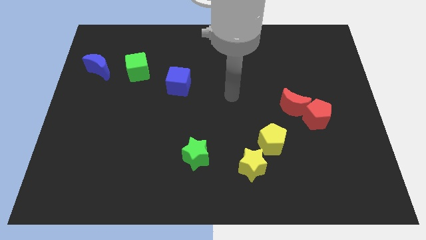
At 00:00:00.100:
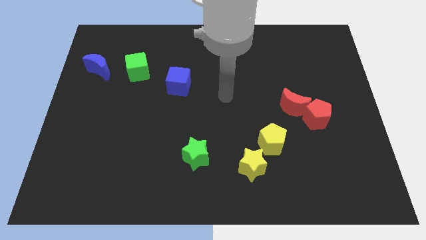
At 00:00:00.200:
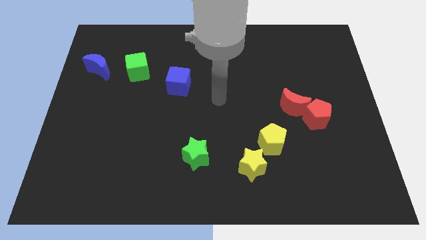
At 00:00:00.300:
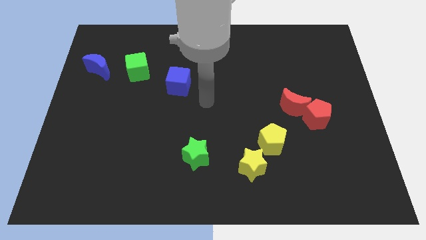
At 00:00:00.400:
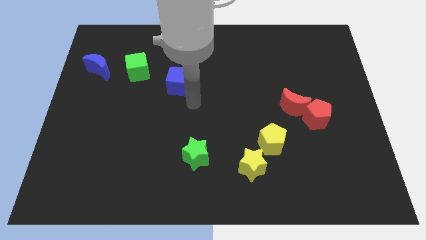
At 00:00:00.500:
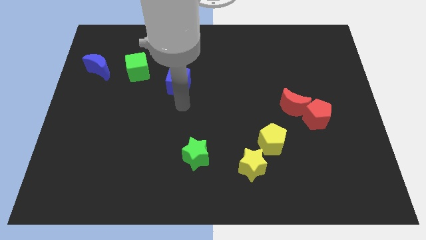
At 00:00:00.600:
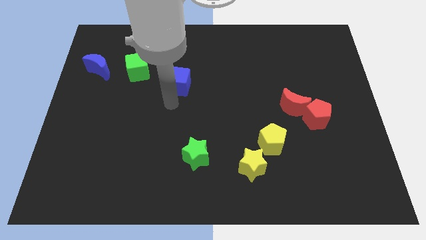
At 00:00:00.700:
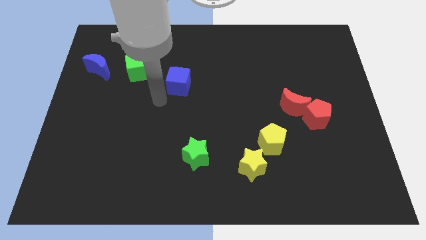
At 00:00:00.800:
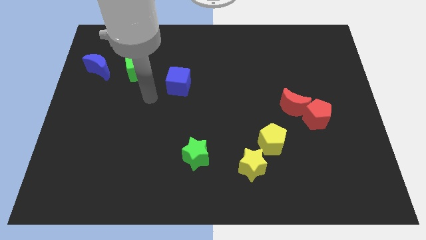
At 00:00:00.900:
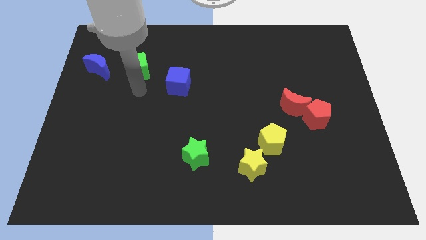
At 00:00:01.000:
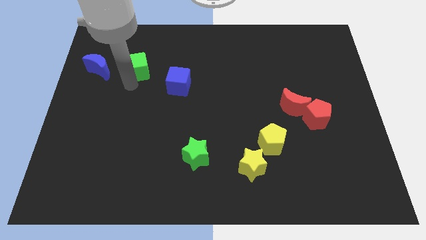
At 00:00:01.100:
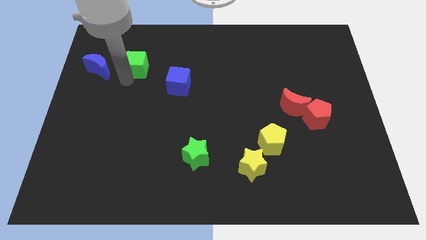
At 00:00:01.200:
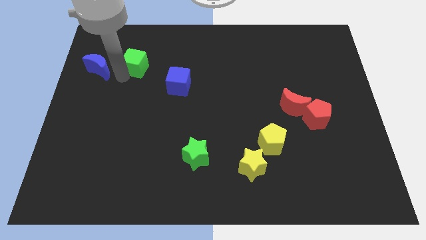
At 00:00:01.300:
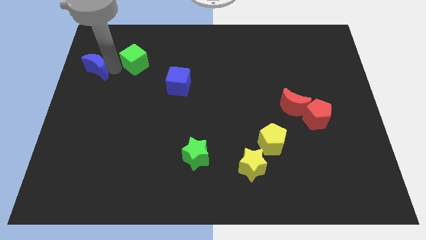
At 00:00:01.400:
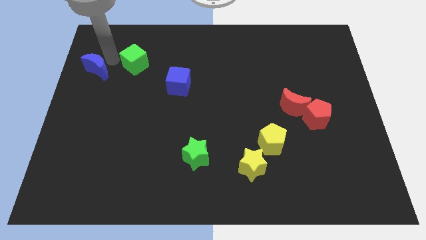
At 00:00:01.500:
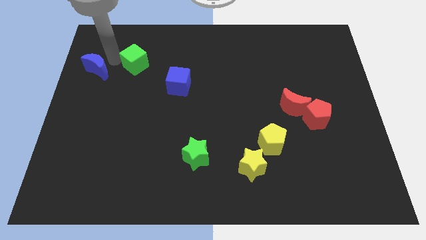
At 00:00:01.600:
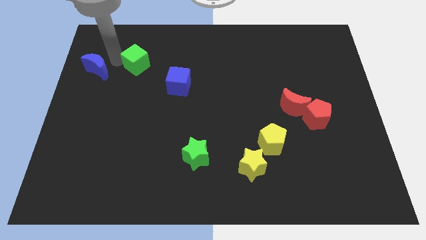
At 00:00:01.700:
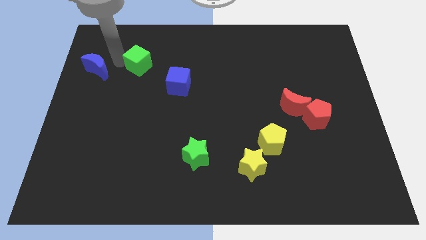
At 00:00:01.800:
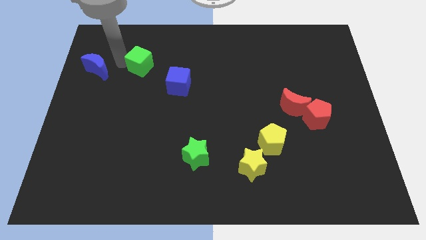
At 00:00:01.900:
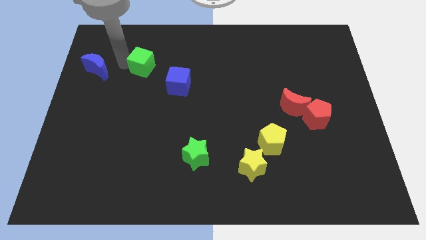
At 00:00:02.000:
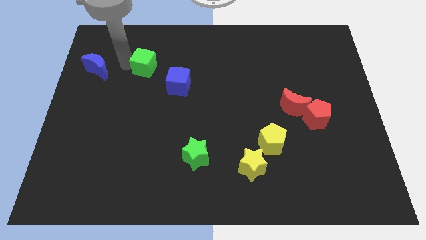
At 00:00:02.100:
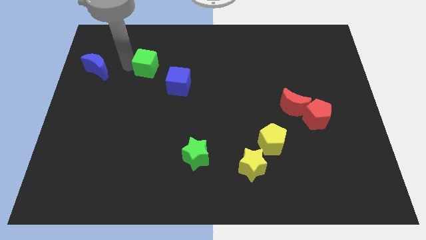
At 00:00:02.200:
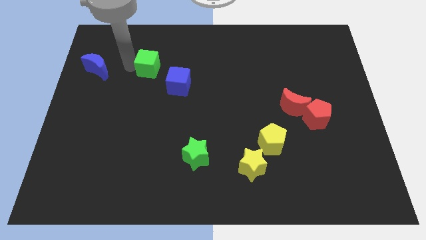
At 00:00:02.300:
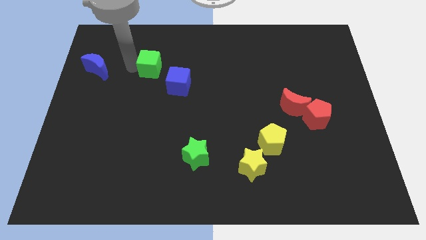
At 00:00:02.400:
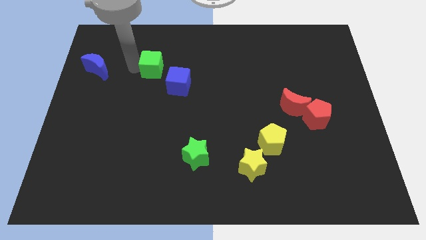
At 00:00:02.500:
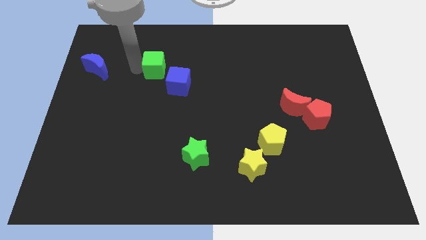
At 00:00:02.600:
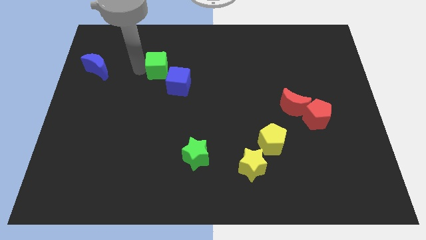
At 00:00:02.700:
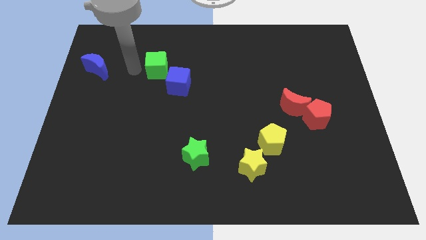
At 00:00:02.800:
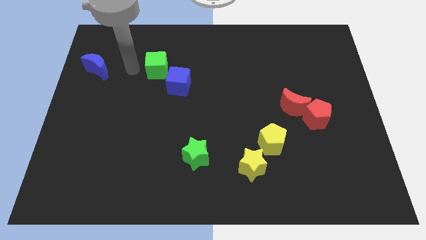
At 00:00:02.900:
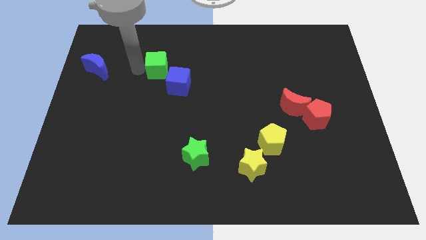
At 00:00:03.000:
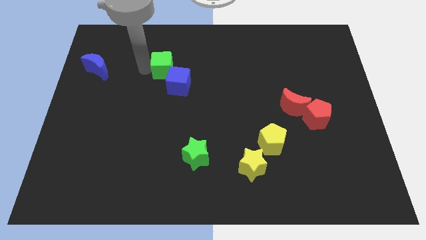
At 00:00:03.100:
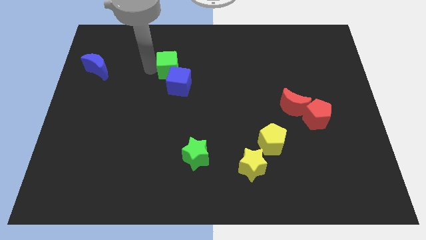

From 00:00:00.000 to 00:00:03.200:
move the green cube to the right a bit

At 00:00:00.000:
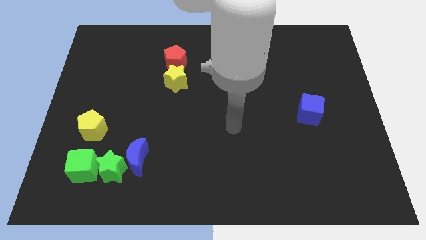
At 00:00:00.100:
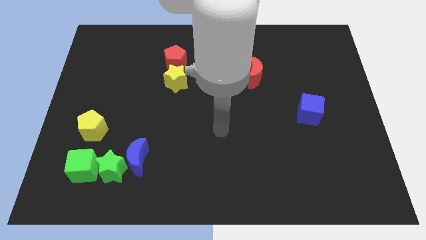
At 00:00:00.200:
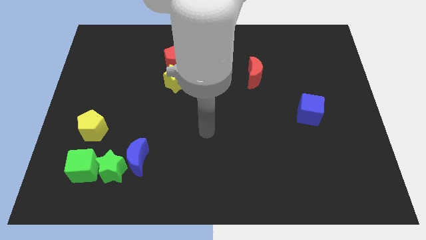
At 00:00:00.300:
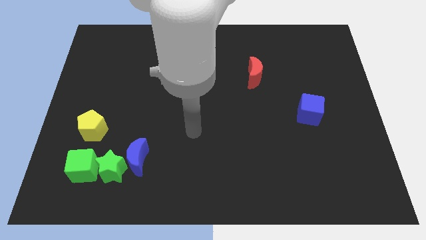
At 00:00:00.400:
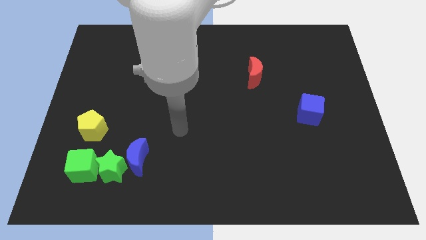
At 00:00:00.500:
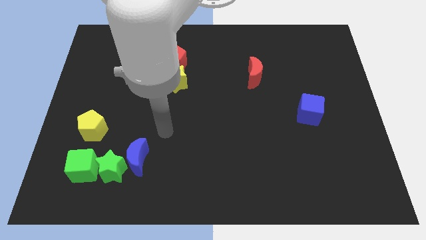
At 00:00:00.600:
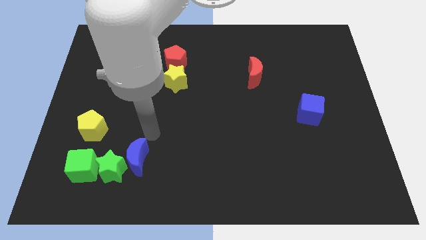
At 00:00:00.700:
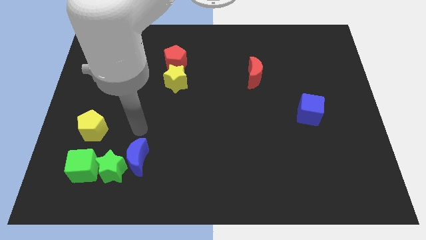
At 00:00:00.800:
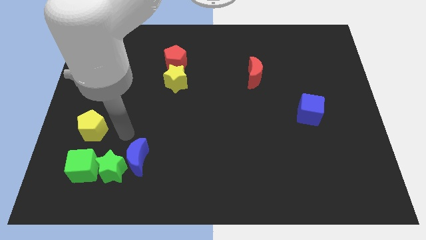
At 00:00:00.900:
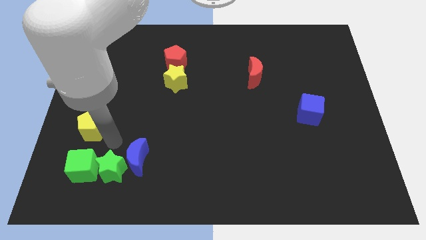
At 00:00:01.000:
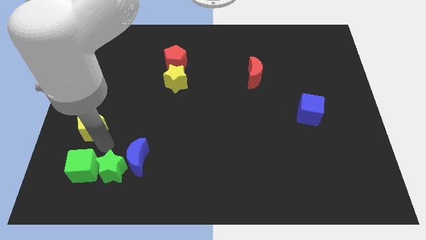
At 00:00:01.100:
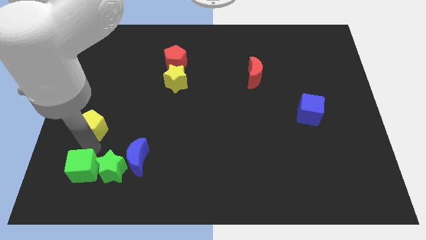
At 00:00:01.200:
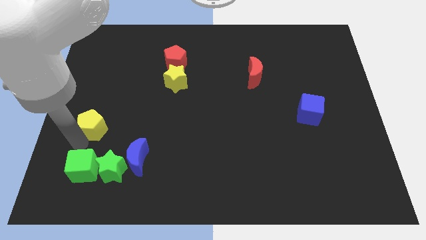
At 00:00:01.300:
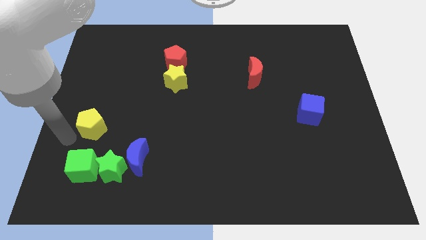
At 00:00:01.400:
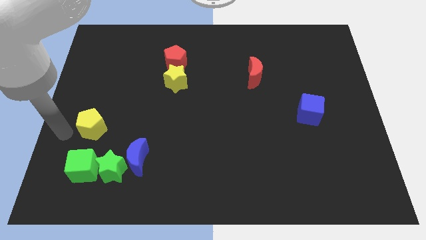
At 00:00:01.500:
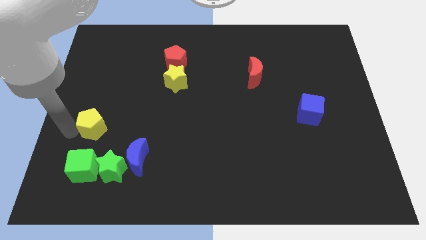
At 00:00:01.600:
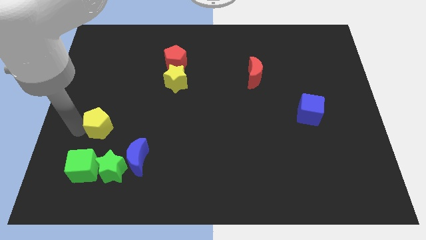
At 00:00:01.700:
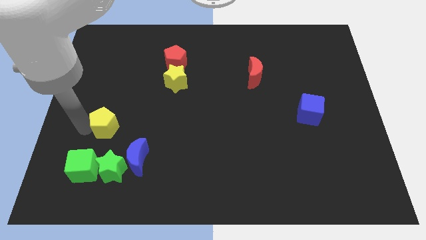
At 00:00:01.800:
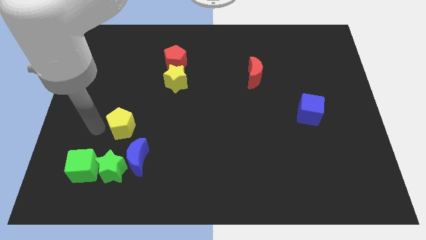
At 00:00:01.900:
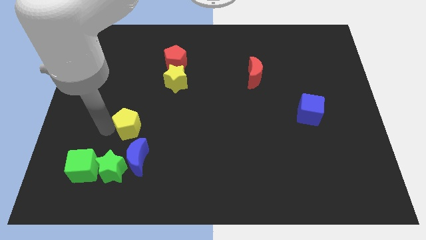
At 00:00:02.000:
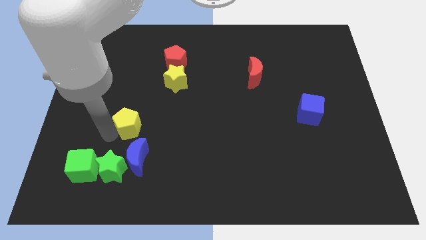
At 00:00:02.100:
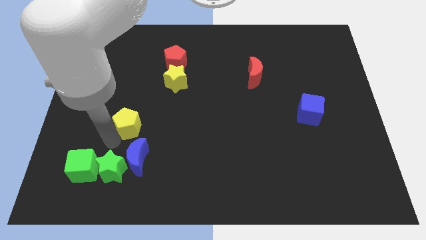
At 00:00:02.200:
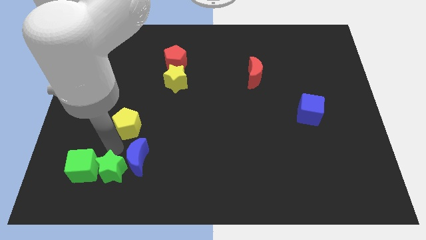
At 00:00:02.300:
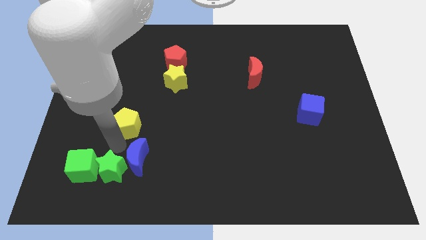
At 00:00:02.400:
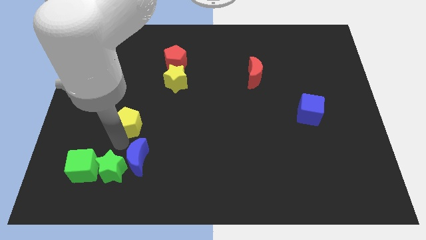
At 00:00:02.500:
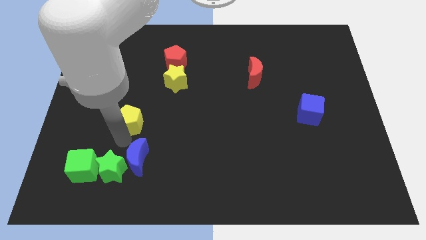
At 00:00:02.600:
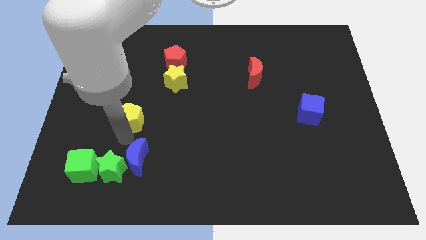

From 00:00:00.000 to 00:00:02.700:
push the yellow pentagon up and to the right a little

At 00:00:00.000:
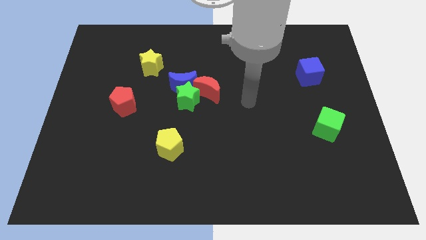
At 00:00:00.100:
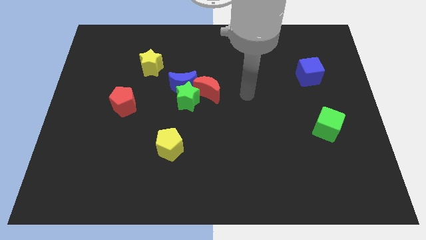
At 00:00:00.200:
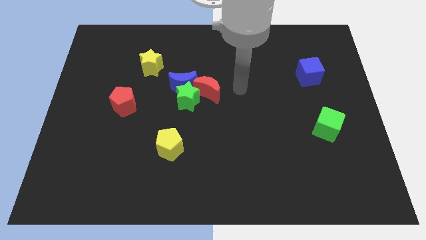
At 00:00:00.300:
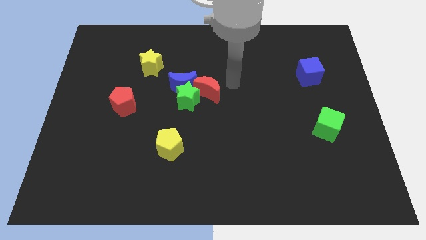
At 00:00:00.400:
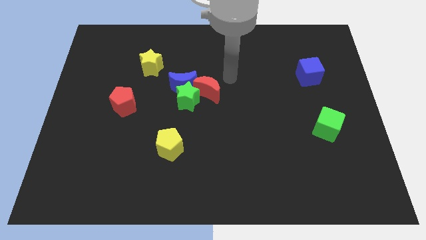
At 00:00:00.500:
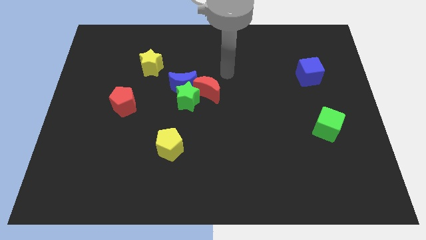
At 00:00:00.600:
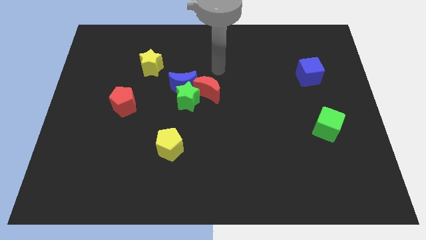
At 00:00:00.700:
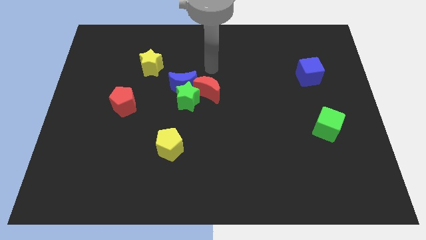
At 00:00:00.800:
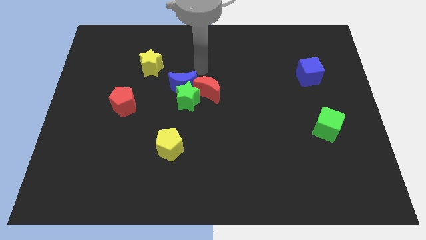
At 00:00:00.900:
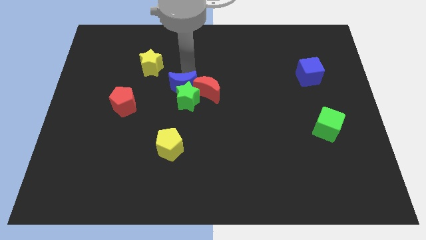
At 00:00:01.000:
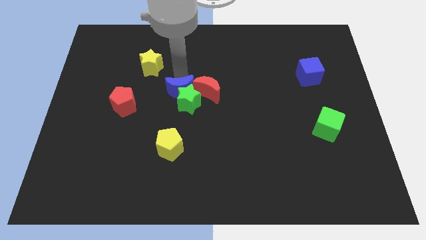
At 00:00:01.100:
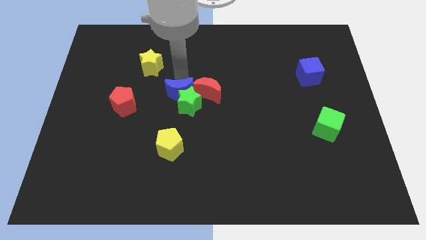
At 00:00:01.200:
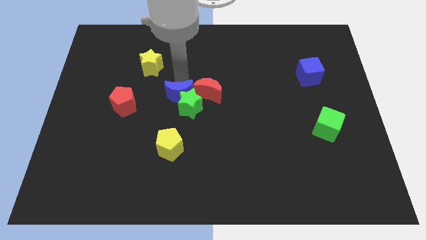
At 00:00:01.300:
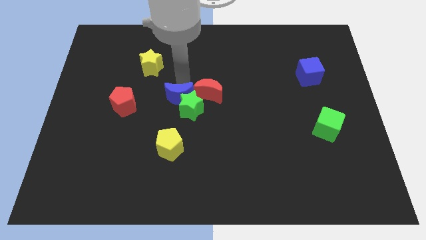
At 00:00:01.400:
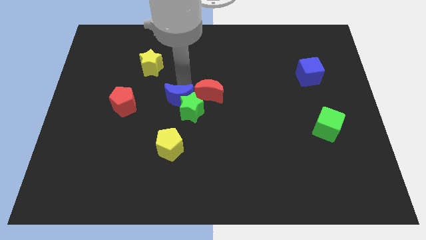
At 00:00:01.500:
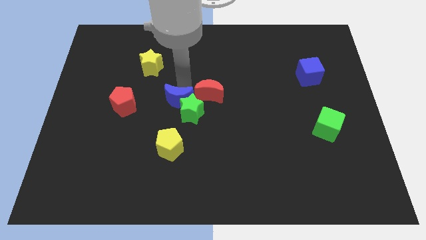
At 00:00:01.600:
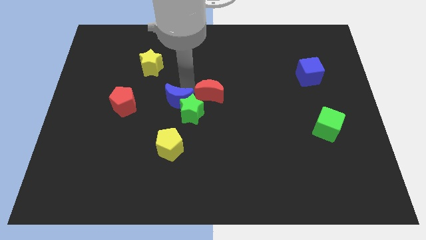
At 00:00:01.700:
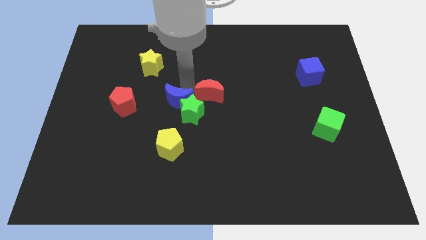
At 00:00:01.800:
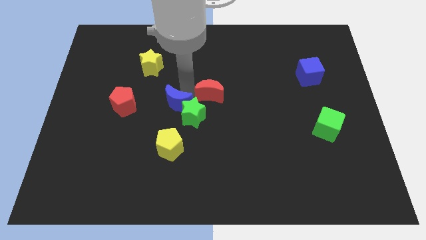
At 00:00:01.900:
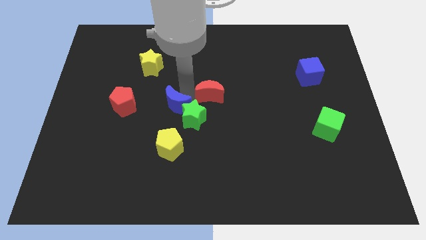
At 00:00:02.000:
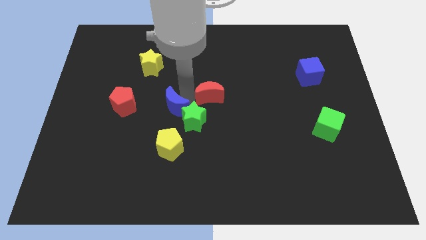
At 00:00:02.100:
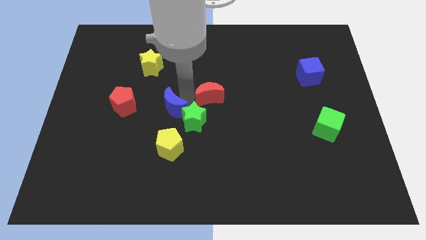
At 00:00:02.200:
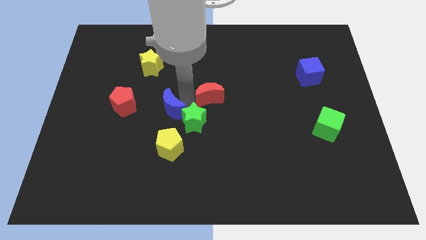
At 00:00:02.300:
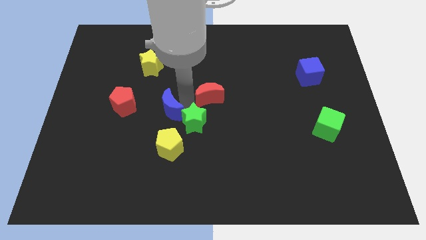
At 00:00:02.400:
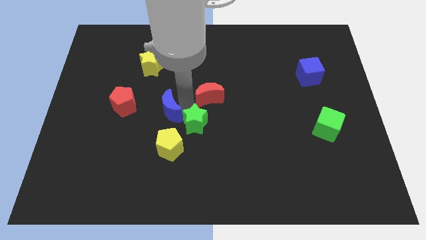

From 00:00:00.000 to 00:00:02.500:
move the green star downwards somewhat
